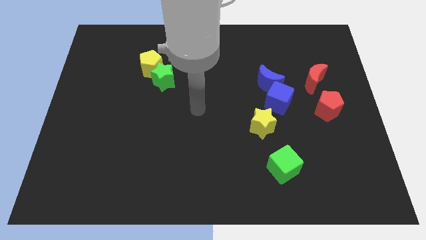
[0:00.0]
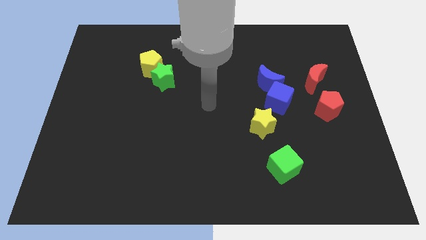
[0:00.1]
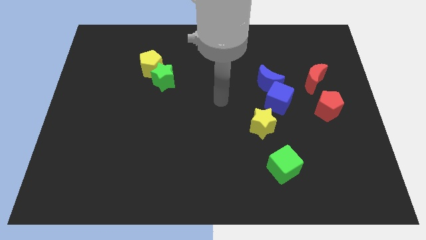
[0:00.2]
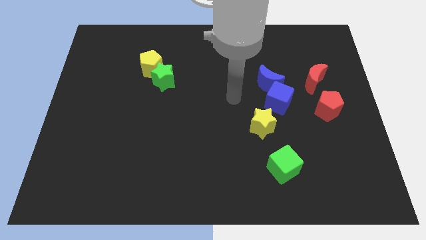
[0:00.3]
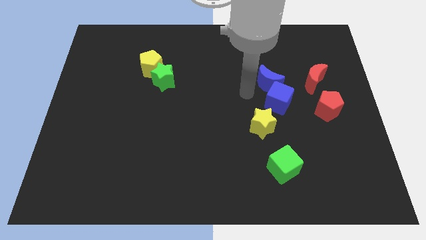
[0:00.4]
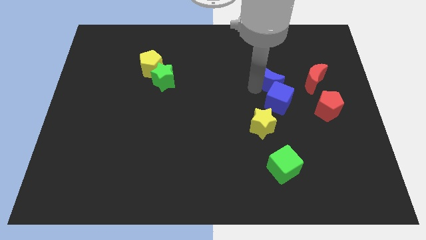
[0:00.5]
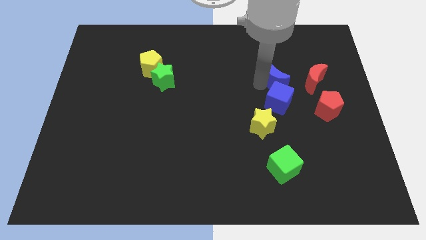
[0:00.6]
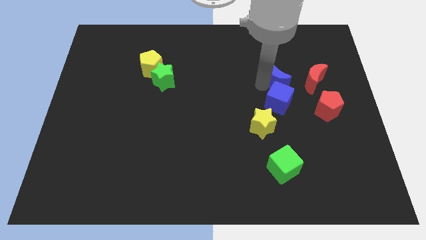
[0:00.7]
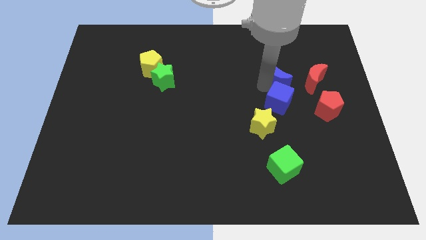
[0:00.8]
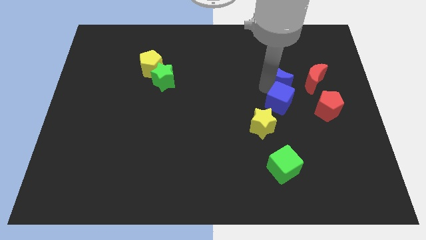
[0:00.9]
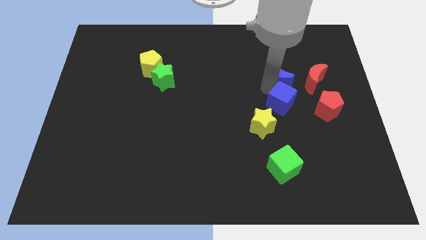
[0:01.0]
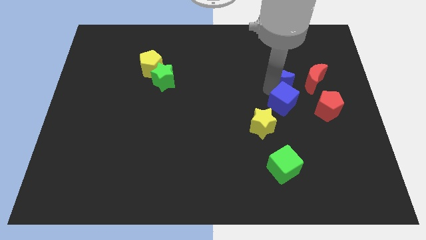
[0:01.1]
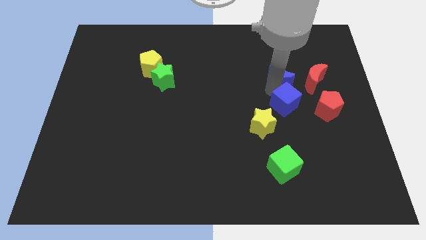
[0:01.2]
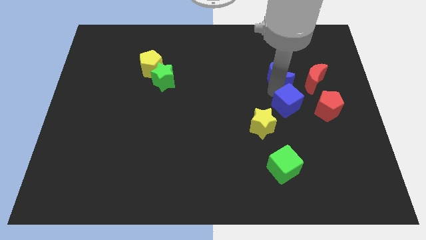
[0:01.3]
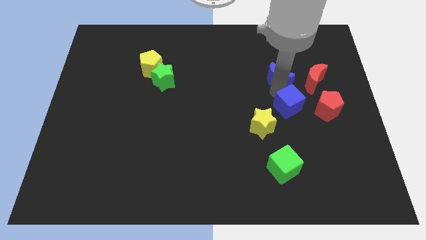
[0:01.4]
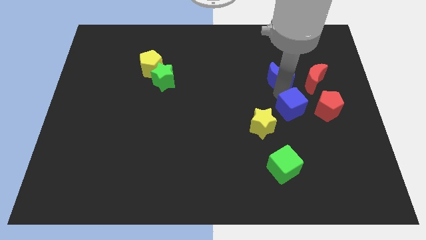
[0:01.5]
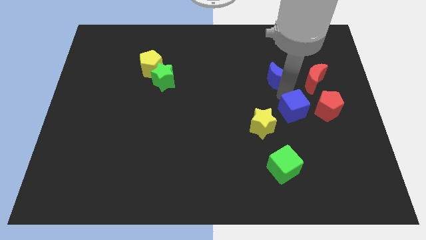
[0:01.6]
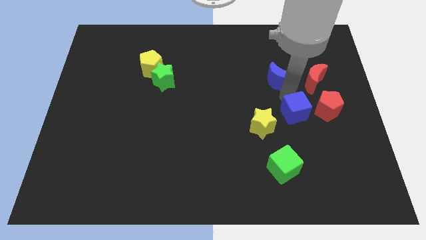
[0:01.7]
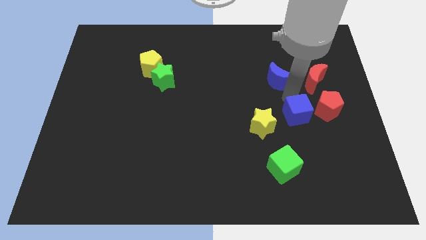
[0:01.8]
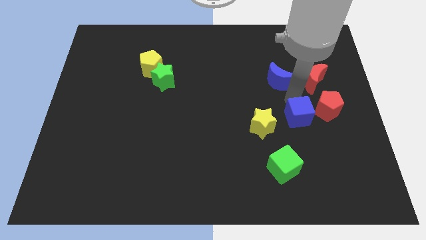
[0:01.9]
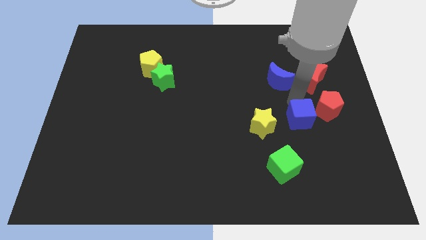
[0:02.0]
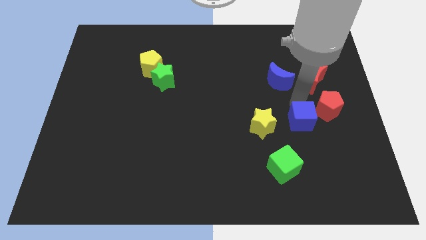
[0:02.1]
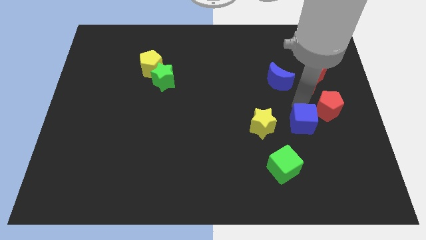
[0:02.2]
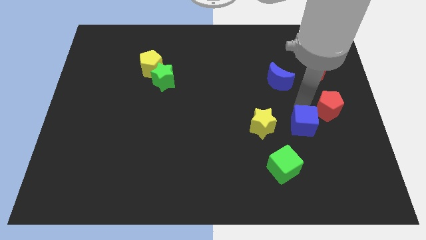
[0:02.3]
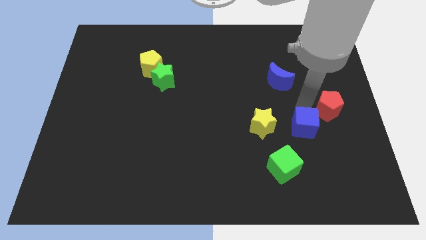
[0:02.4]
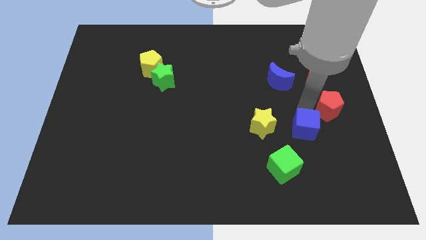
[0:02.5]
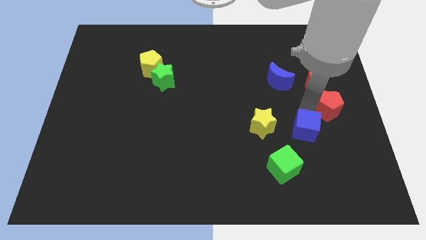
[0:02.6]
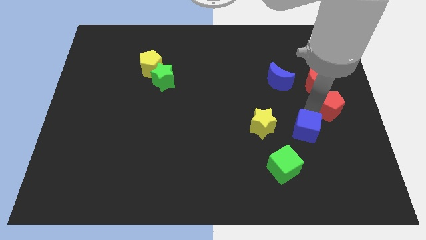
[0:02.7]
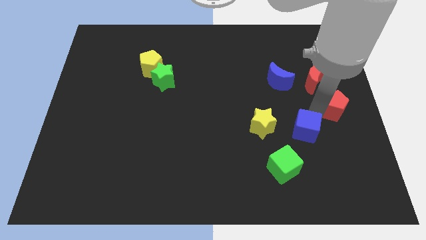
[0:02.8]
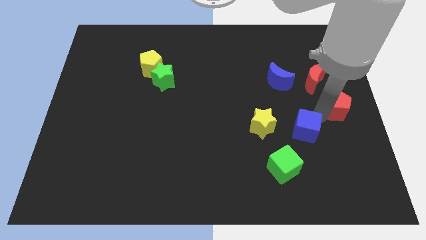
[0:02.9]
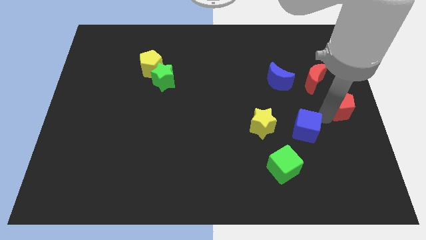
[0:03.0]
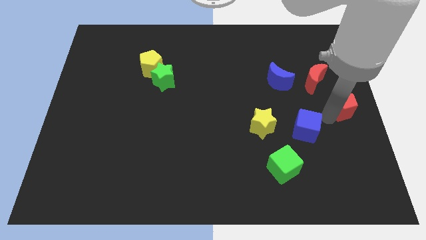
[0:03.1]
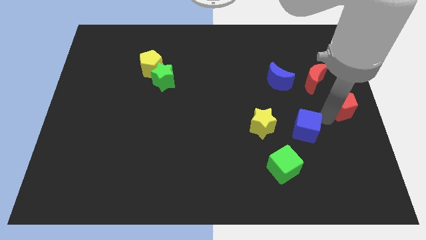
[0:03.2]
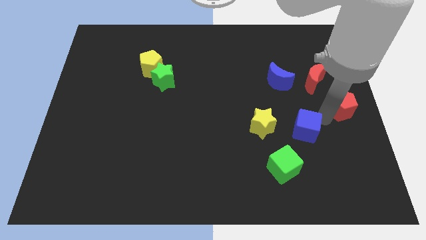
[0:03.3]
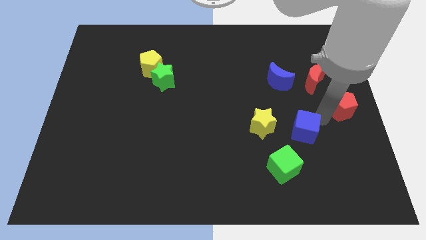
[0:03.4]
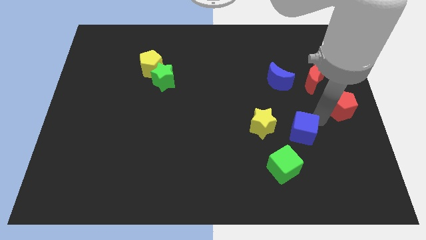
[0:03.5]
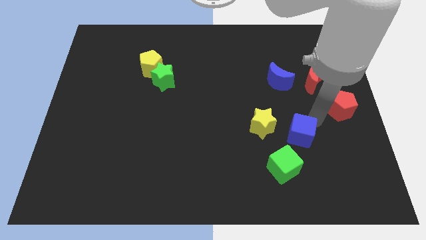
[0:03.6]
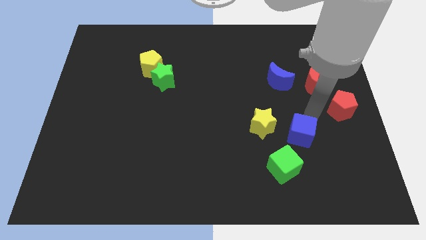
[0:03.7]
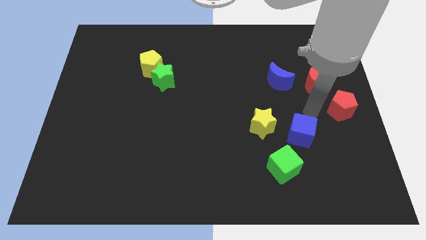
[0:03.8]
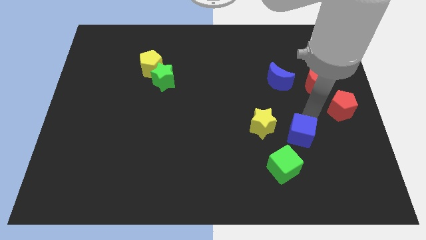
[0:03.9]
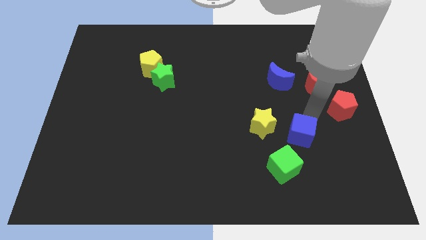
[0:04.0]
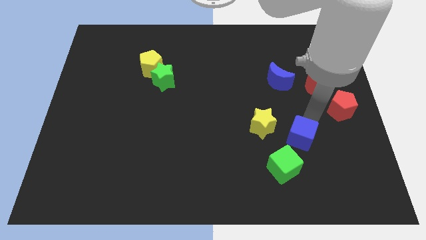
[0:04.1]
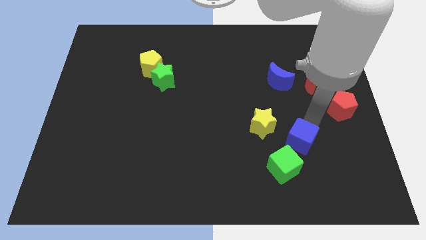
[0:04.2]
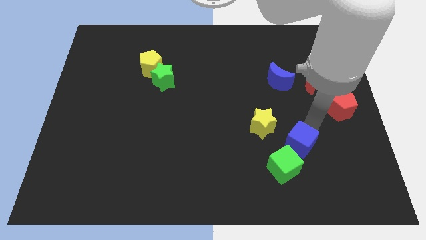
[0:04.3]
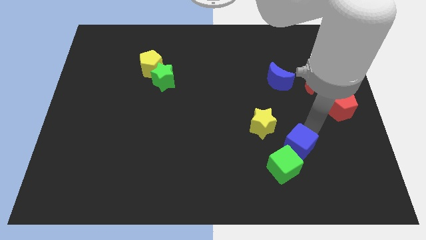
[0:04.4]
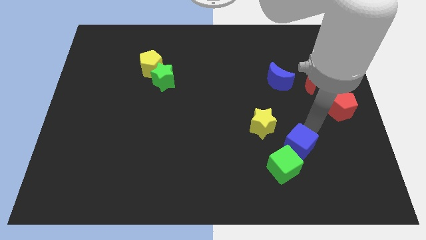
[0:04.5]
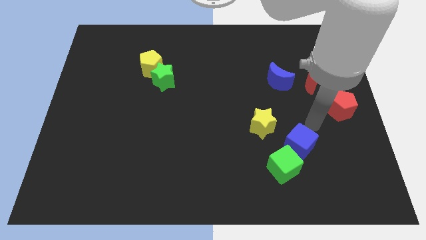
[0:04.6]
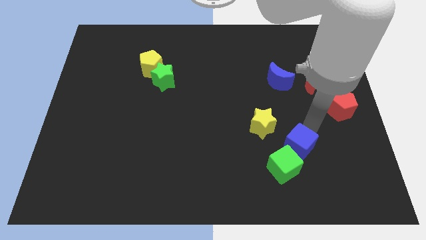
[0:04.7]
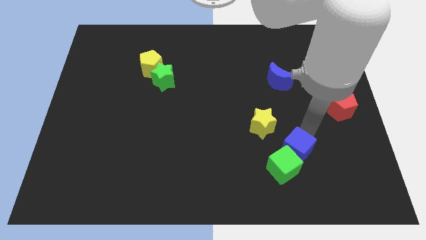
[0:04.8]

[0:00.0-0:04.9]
move the blue cube next to the green cube

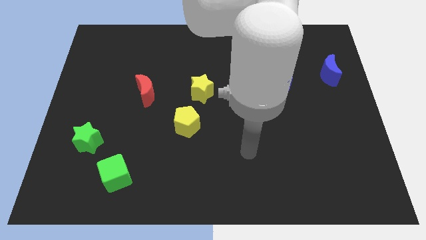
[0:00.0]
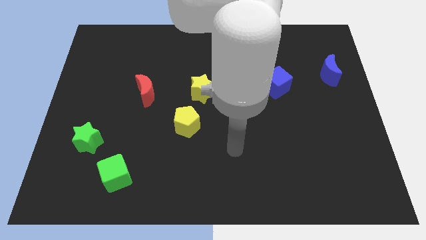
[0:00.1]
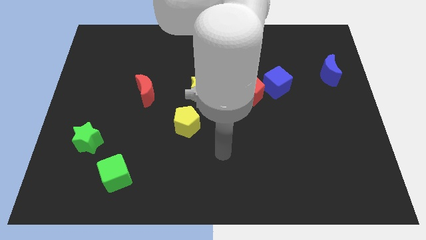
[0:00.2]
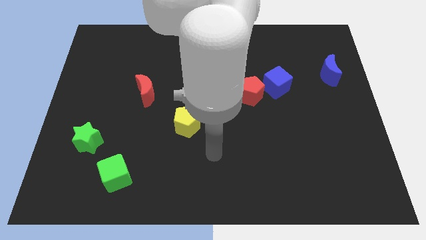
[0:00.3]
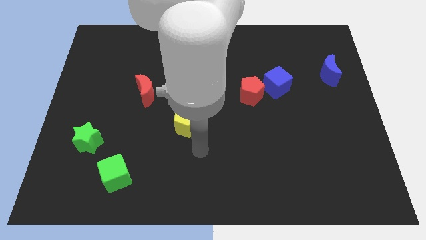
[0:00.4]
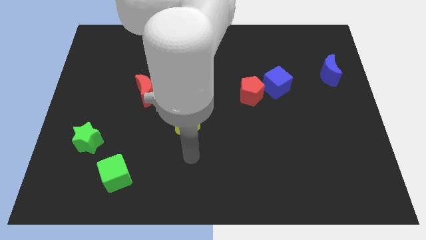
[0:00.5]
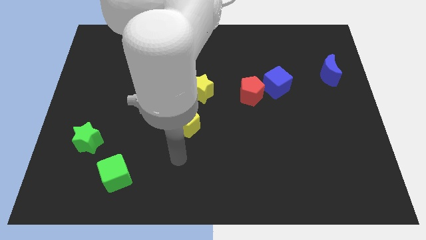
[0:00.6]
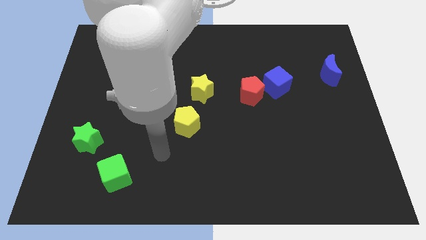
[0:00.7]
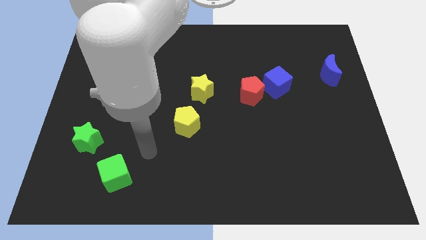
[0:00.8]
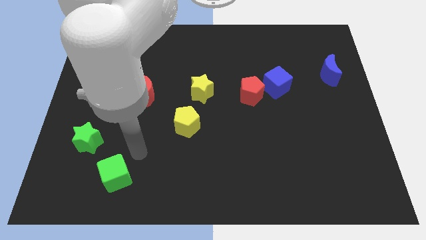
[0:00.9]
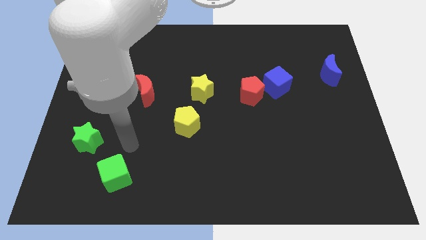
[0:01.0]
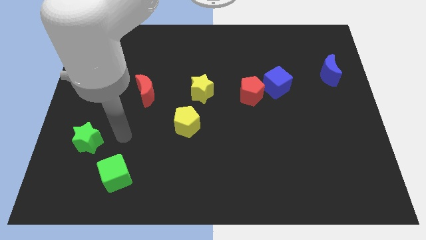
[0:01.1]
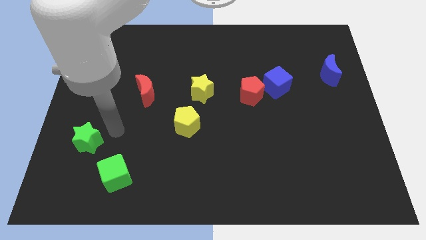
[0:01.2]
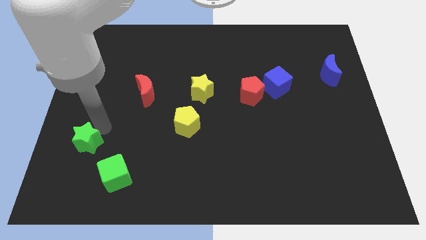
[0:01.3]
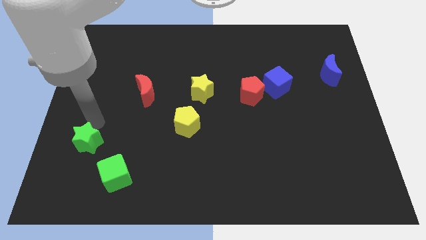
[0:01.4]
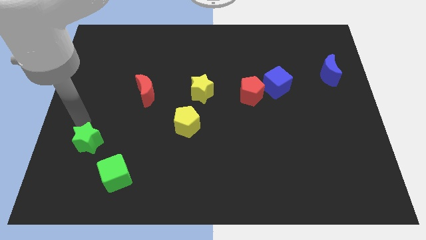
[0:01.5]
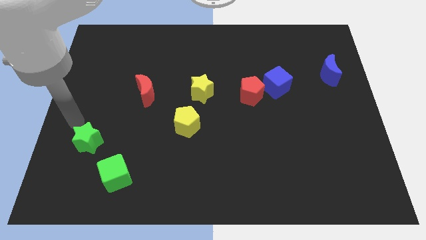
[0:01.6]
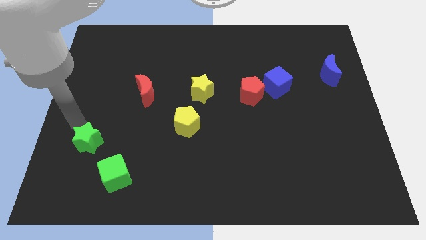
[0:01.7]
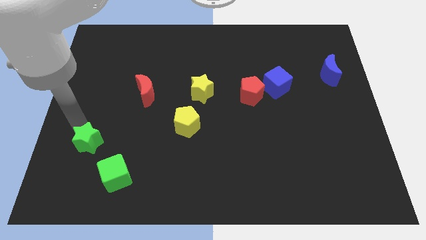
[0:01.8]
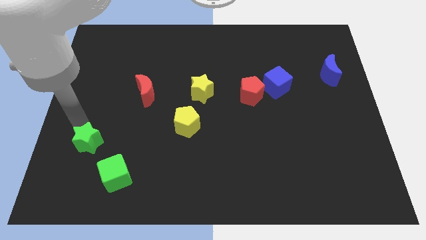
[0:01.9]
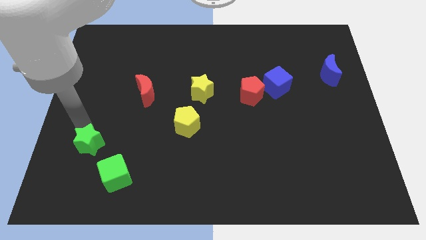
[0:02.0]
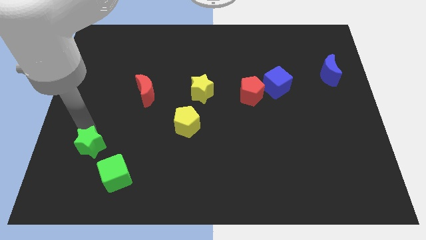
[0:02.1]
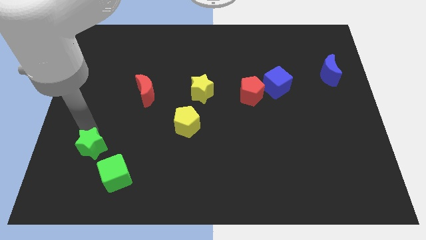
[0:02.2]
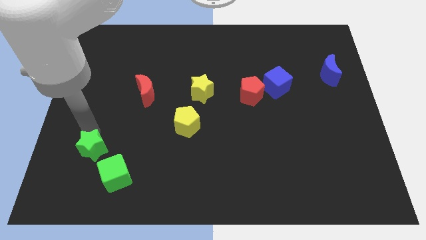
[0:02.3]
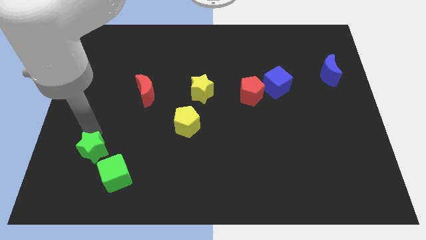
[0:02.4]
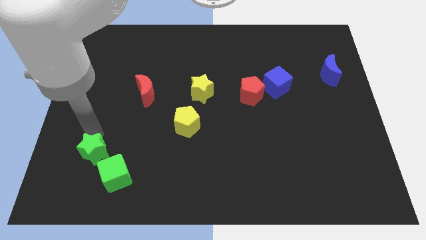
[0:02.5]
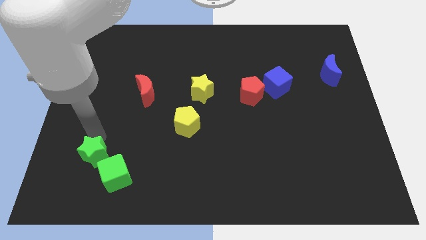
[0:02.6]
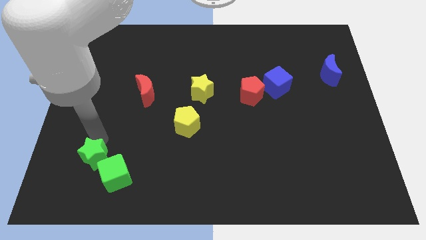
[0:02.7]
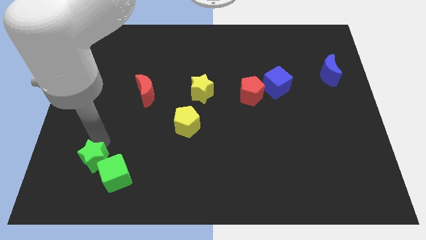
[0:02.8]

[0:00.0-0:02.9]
slide the green star to the green cube
